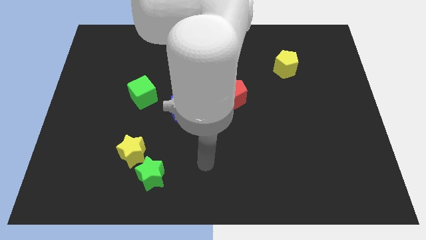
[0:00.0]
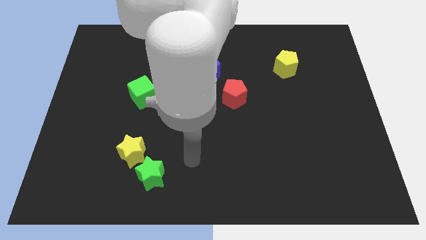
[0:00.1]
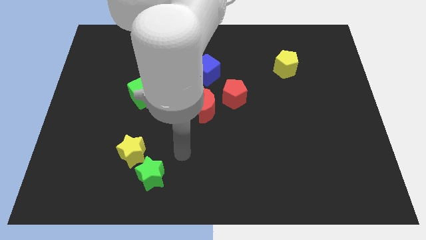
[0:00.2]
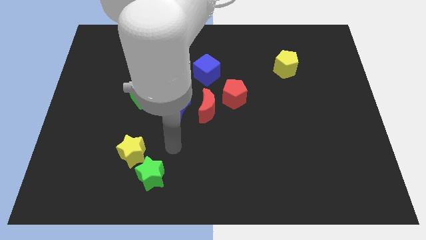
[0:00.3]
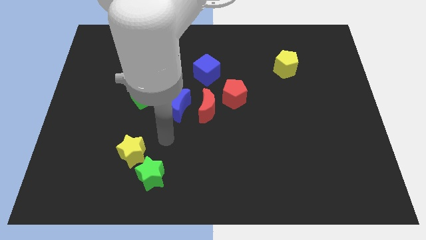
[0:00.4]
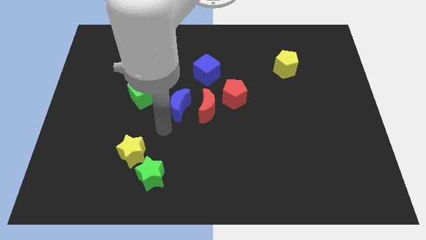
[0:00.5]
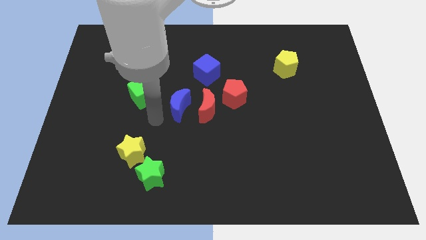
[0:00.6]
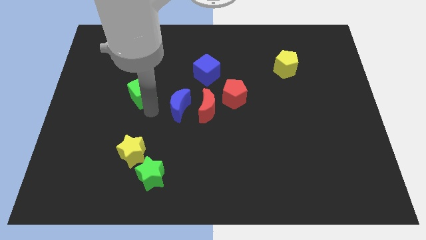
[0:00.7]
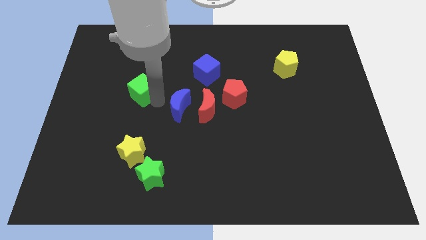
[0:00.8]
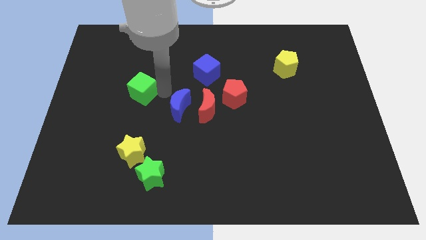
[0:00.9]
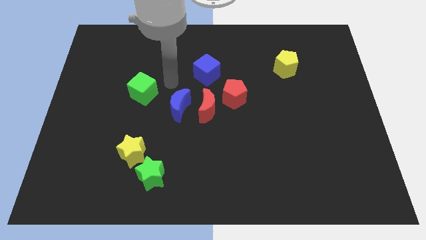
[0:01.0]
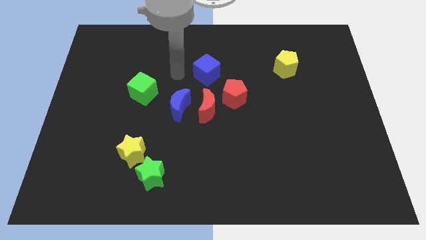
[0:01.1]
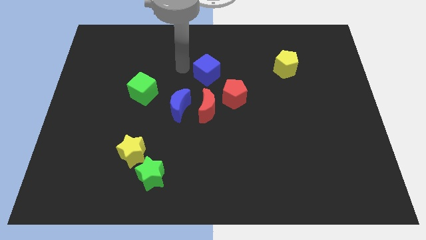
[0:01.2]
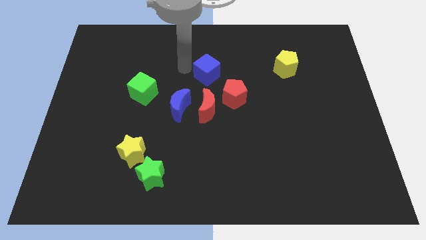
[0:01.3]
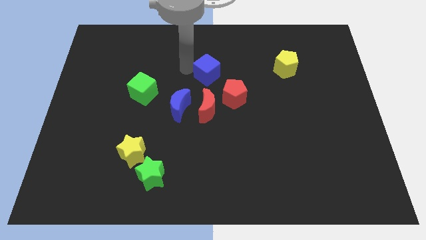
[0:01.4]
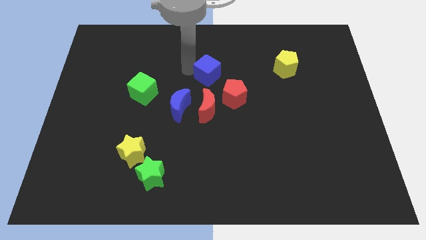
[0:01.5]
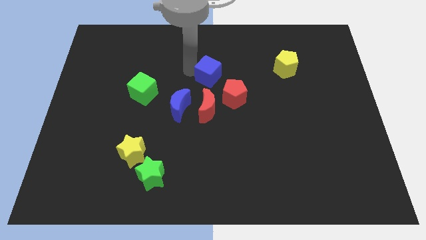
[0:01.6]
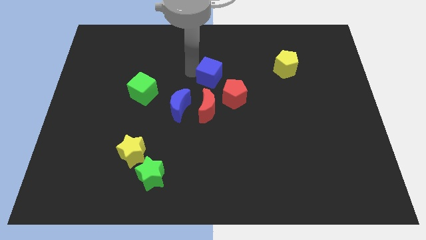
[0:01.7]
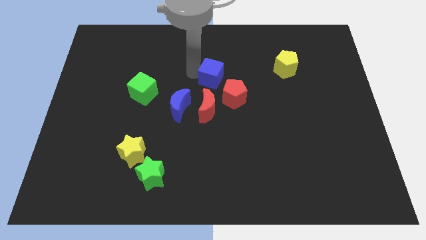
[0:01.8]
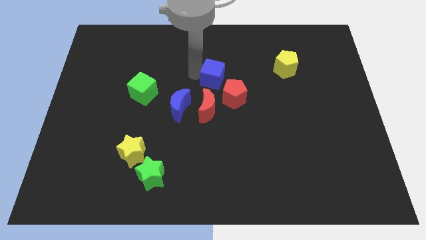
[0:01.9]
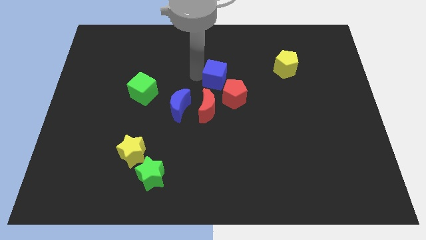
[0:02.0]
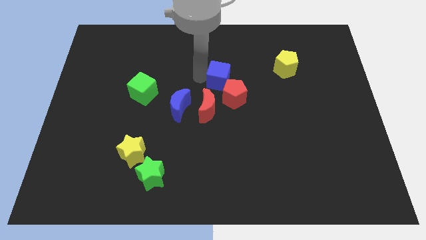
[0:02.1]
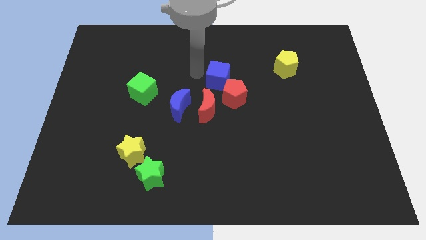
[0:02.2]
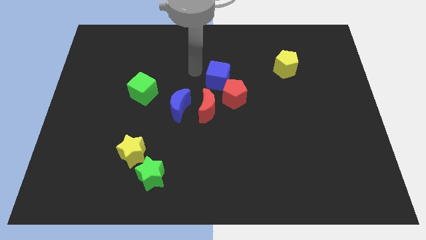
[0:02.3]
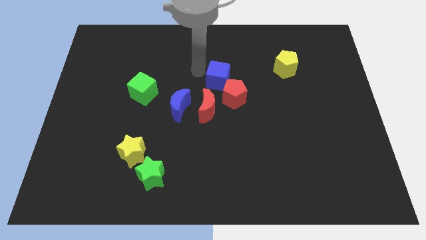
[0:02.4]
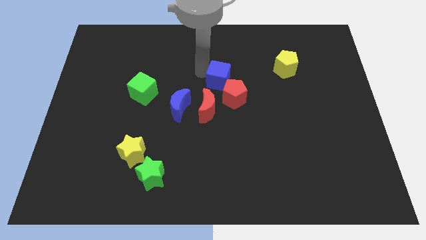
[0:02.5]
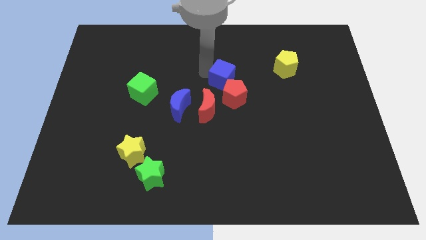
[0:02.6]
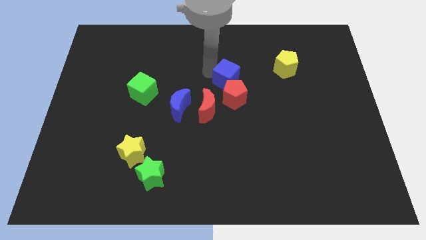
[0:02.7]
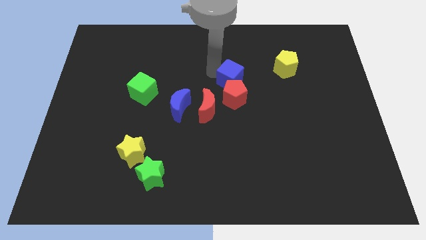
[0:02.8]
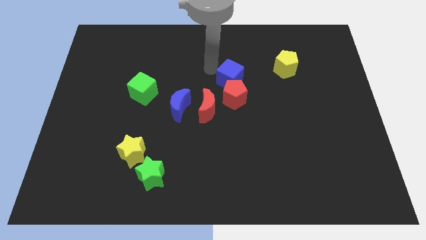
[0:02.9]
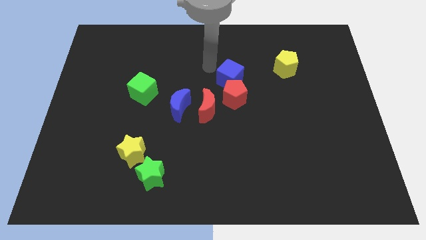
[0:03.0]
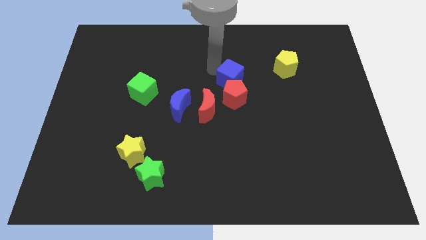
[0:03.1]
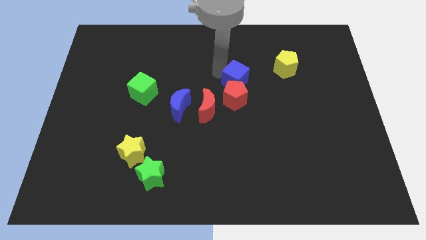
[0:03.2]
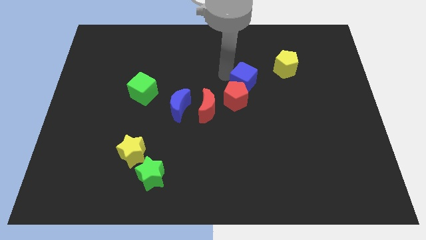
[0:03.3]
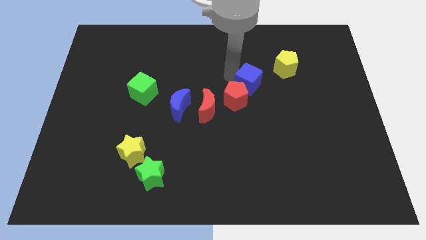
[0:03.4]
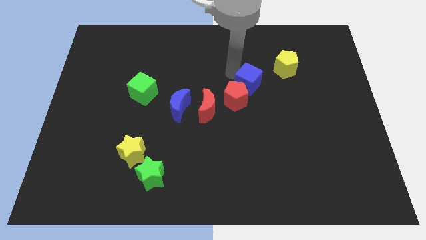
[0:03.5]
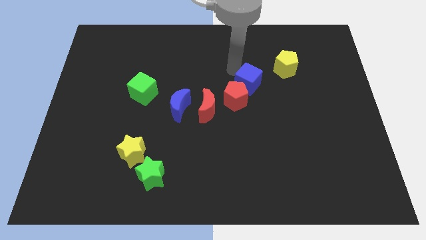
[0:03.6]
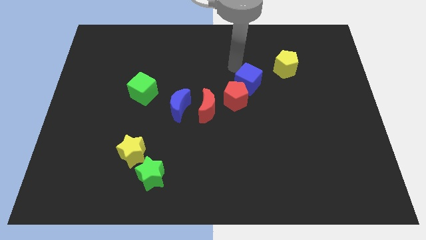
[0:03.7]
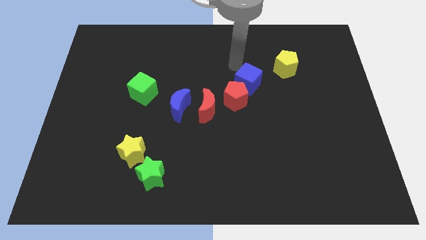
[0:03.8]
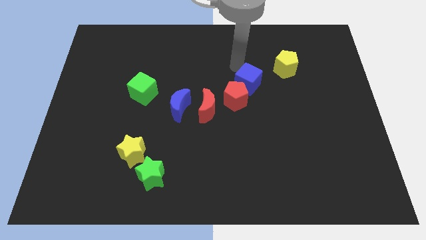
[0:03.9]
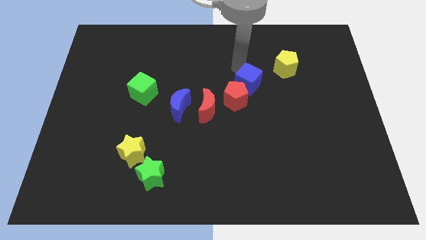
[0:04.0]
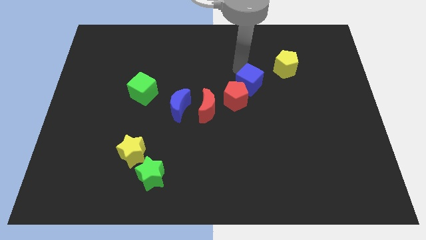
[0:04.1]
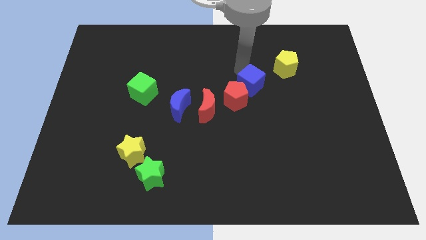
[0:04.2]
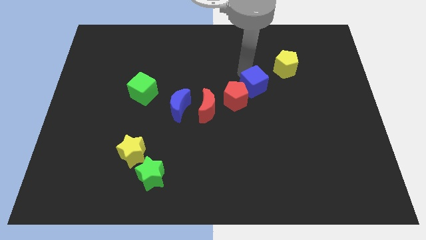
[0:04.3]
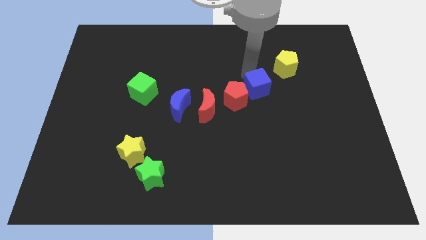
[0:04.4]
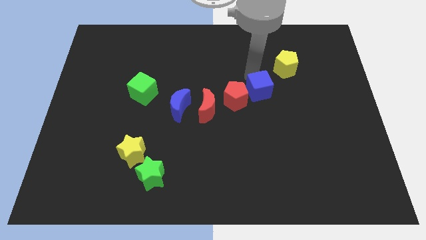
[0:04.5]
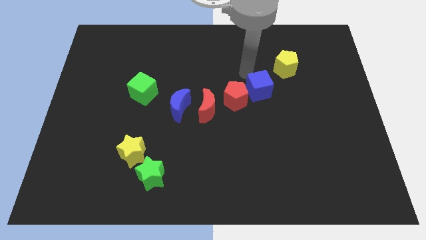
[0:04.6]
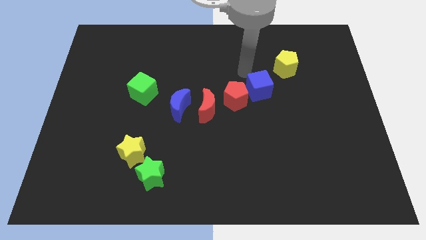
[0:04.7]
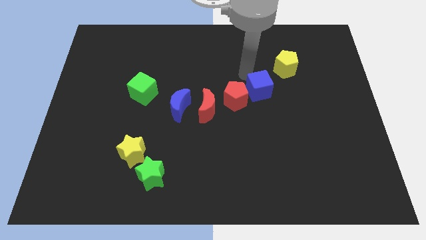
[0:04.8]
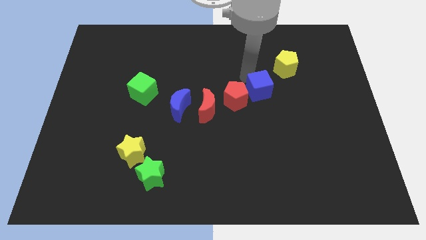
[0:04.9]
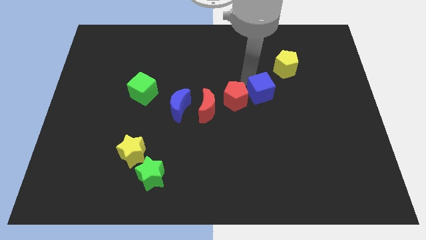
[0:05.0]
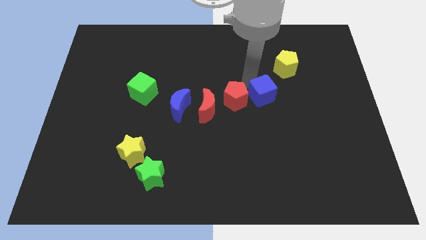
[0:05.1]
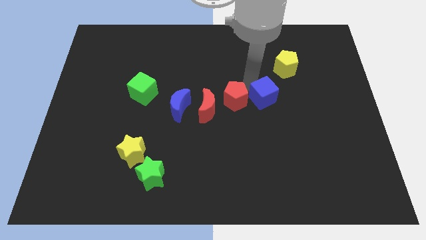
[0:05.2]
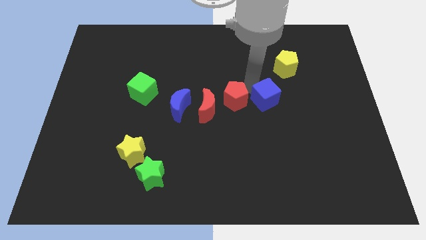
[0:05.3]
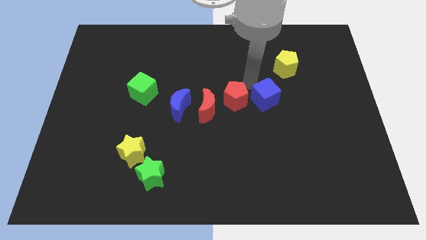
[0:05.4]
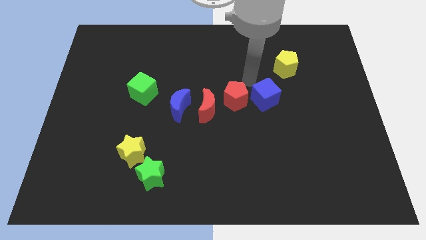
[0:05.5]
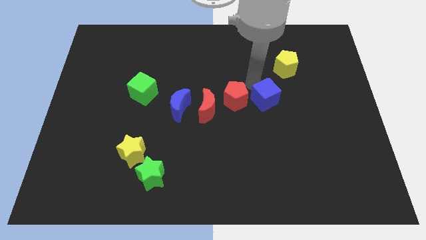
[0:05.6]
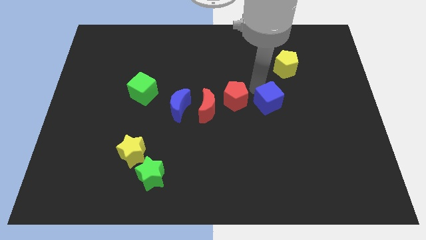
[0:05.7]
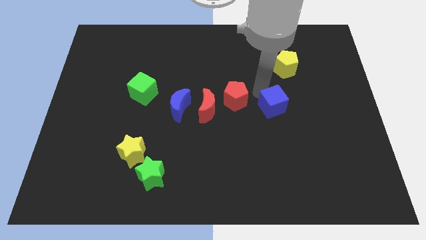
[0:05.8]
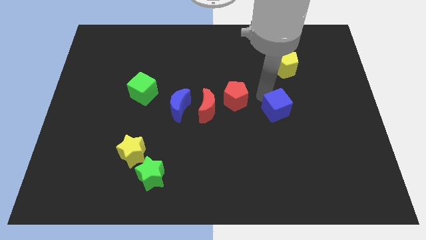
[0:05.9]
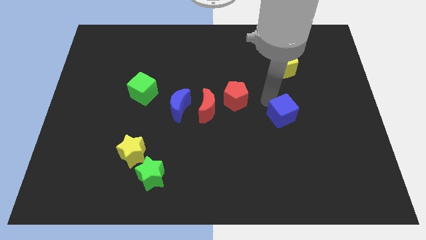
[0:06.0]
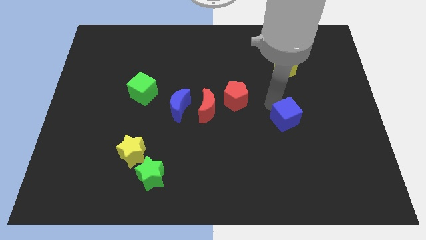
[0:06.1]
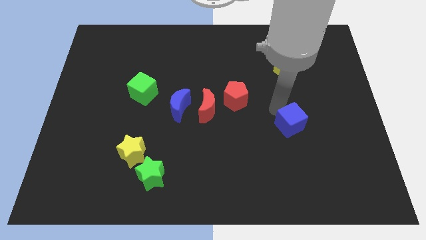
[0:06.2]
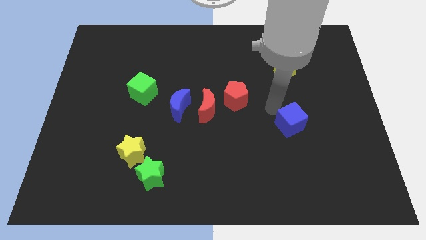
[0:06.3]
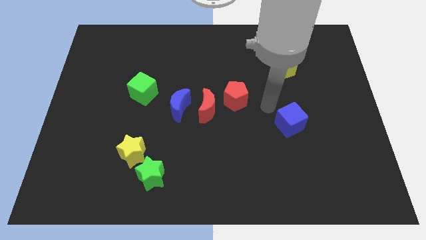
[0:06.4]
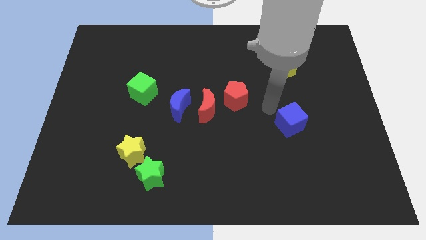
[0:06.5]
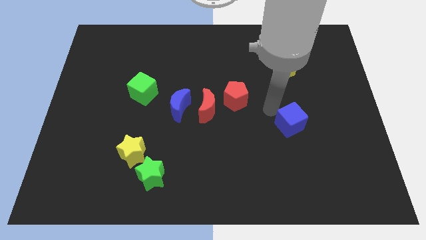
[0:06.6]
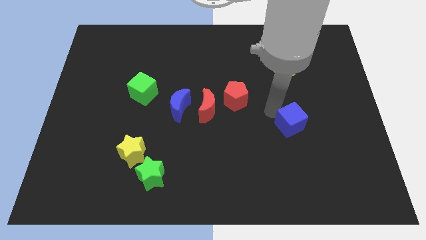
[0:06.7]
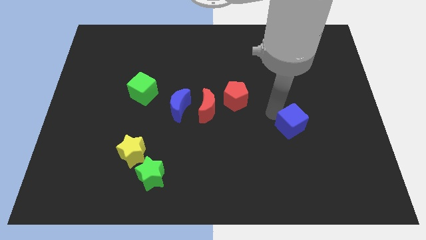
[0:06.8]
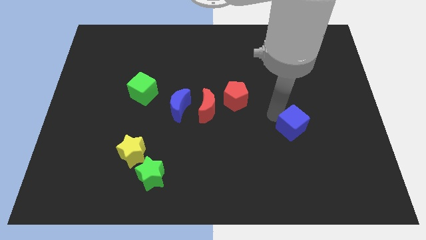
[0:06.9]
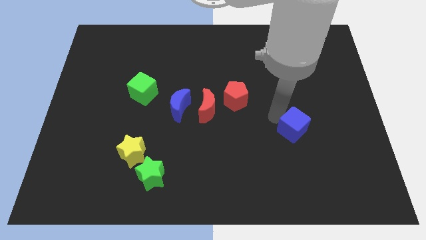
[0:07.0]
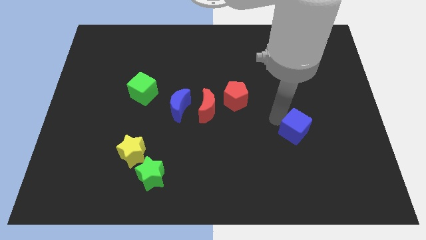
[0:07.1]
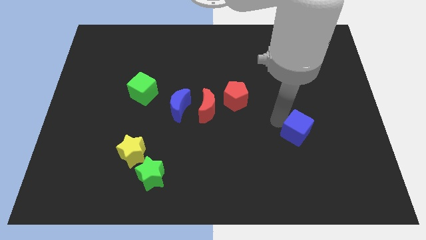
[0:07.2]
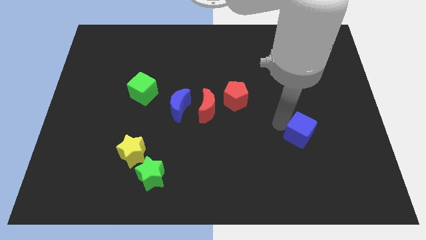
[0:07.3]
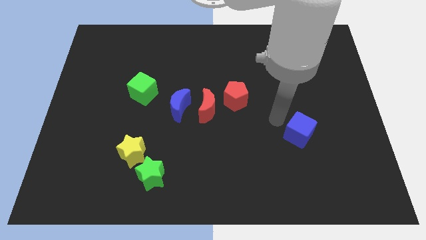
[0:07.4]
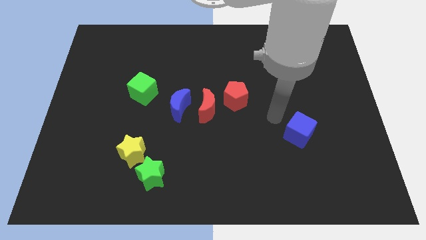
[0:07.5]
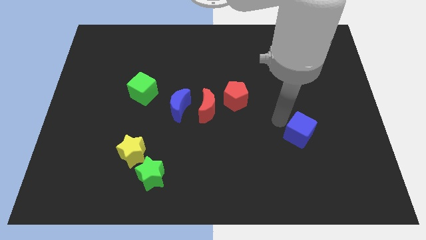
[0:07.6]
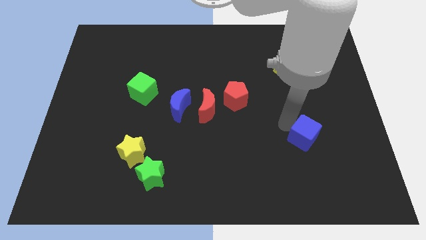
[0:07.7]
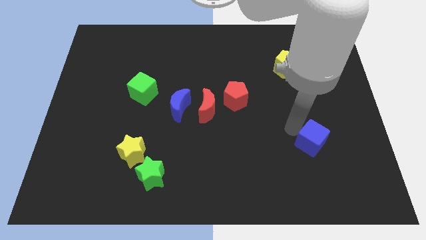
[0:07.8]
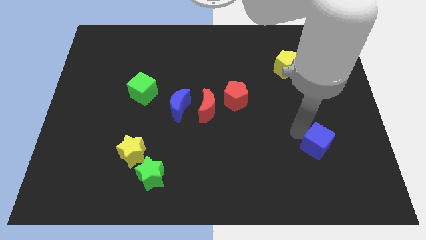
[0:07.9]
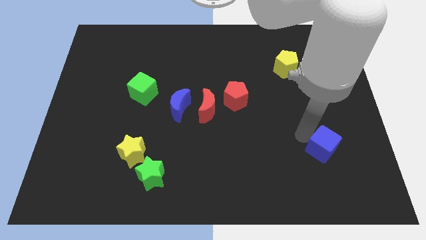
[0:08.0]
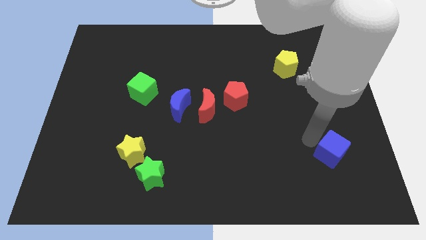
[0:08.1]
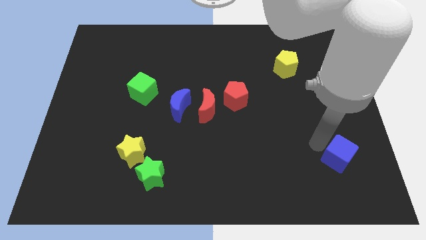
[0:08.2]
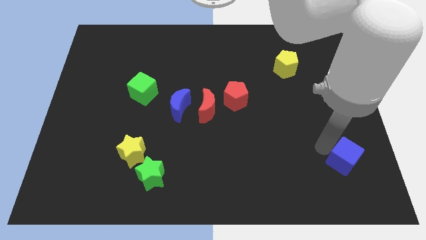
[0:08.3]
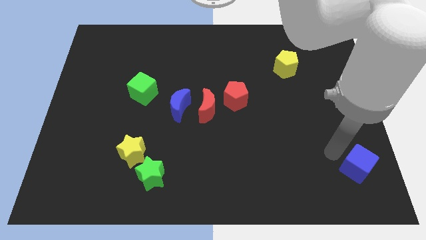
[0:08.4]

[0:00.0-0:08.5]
slide the blue cube to the lower right corner
